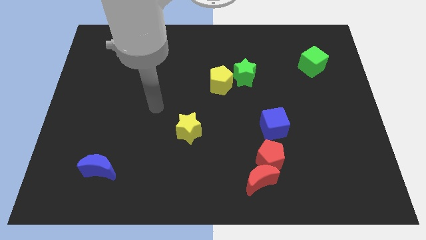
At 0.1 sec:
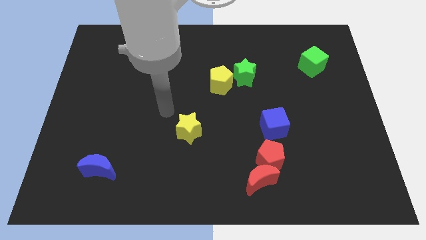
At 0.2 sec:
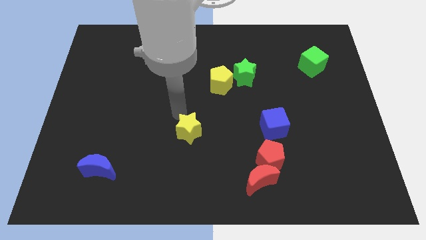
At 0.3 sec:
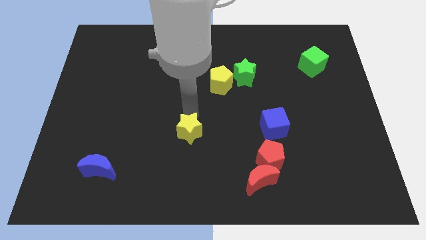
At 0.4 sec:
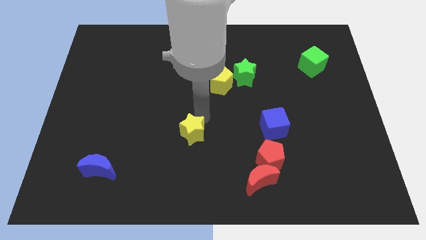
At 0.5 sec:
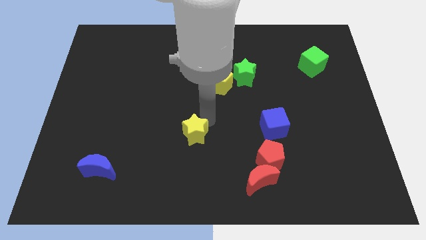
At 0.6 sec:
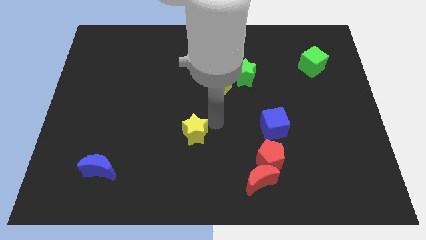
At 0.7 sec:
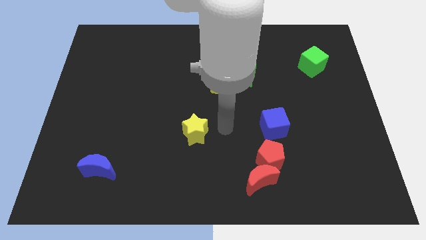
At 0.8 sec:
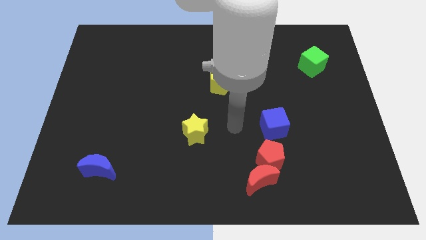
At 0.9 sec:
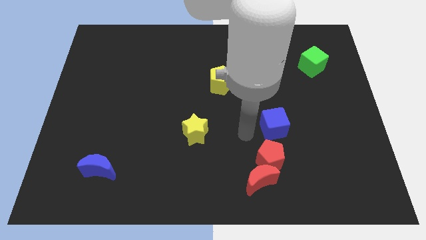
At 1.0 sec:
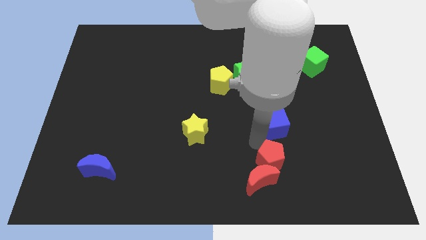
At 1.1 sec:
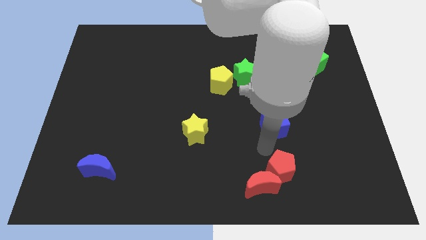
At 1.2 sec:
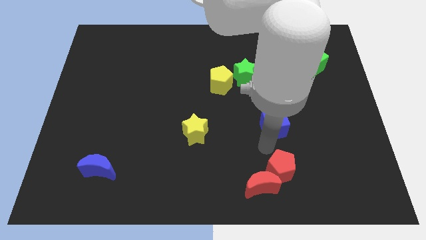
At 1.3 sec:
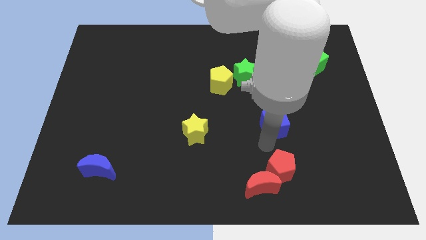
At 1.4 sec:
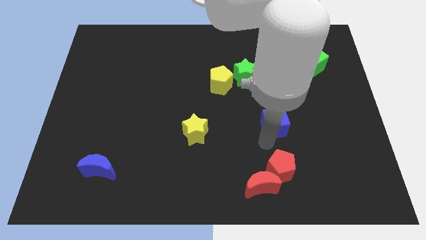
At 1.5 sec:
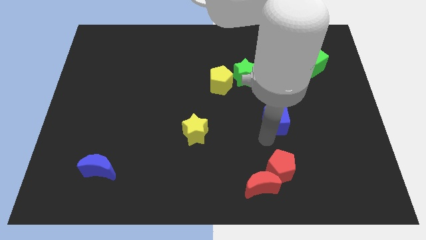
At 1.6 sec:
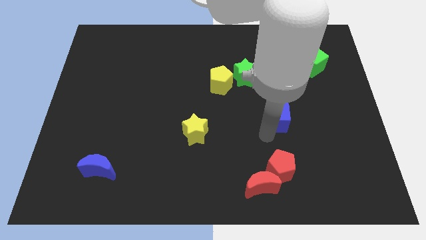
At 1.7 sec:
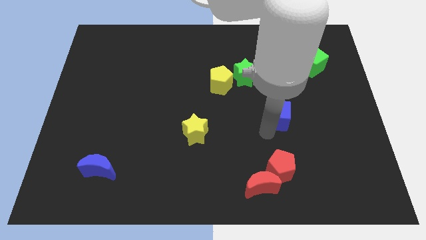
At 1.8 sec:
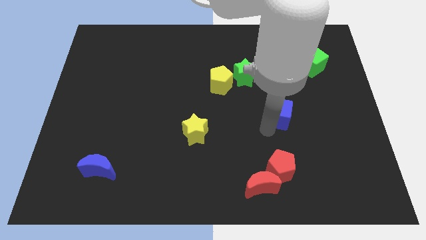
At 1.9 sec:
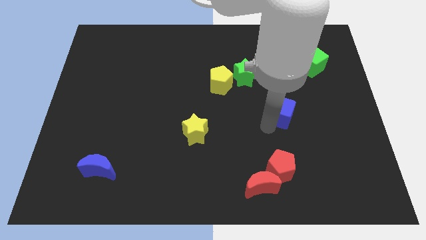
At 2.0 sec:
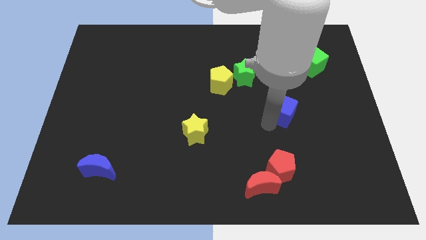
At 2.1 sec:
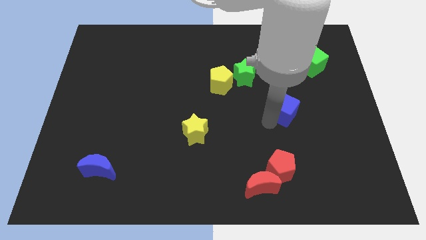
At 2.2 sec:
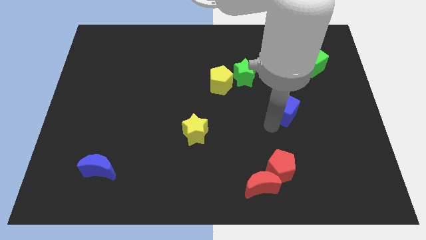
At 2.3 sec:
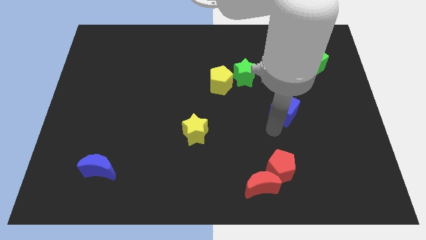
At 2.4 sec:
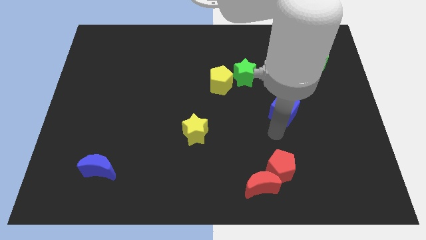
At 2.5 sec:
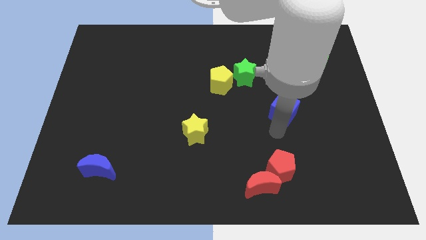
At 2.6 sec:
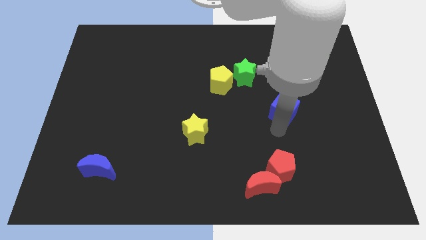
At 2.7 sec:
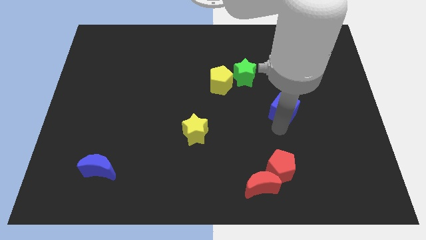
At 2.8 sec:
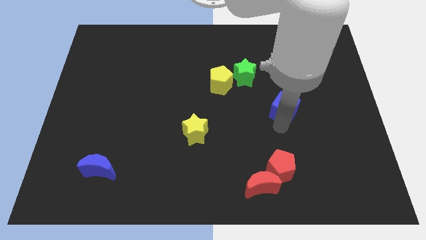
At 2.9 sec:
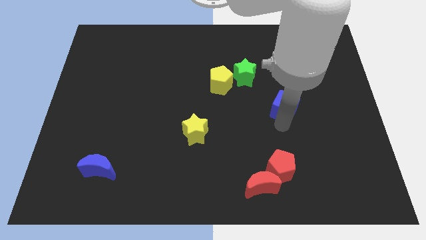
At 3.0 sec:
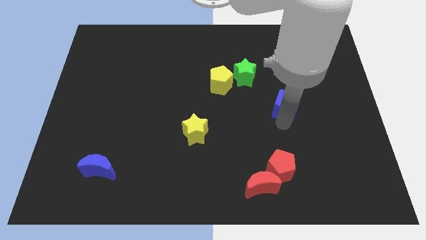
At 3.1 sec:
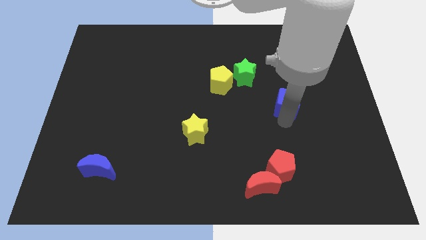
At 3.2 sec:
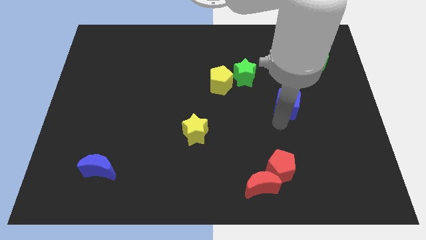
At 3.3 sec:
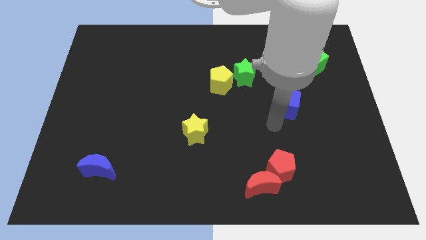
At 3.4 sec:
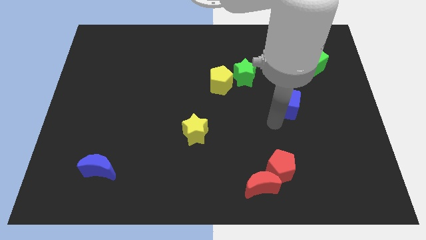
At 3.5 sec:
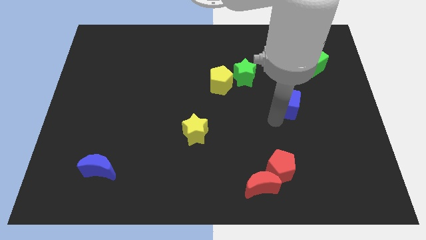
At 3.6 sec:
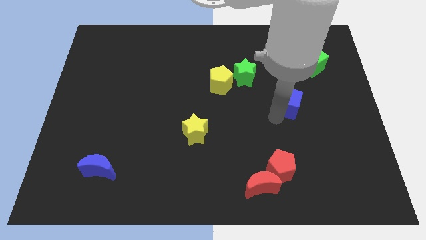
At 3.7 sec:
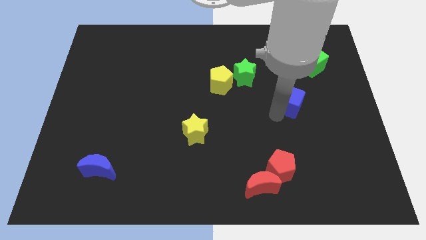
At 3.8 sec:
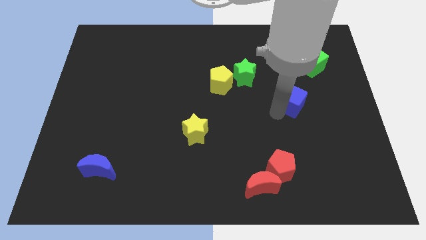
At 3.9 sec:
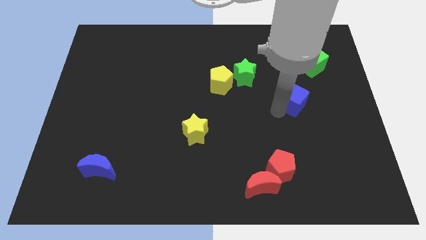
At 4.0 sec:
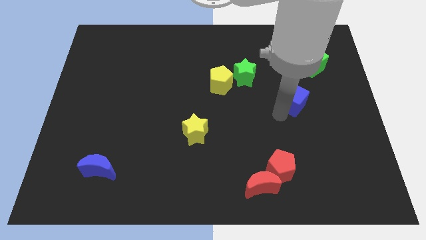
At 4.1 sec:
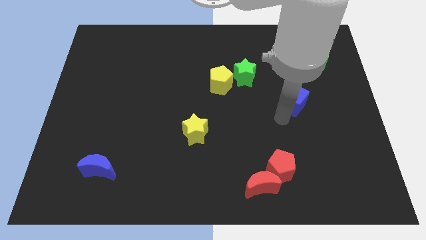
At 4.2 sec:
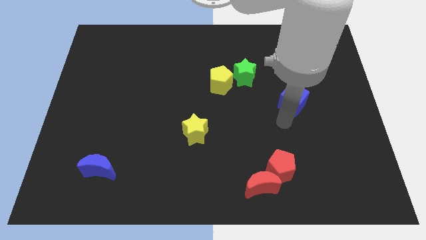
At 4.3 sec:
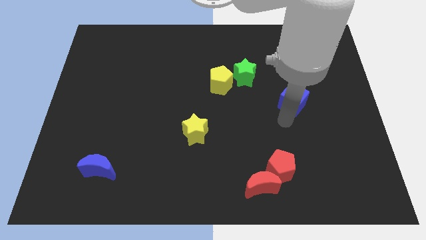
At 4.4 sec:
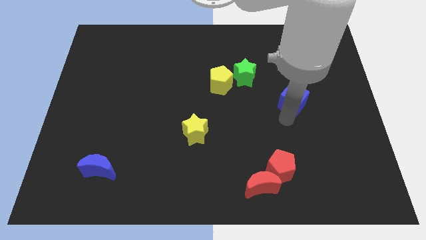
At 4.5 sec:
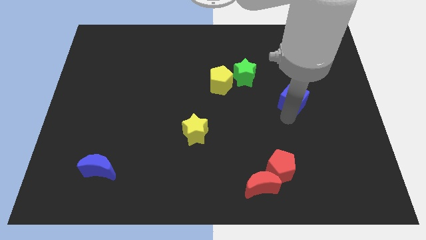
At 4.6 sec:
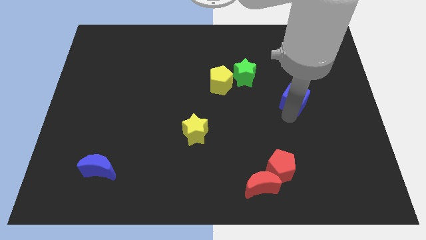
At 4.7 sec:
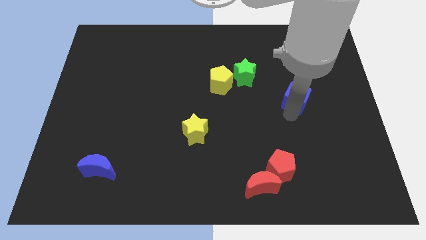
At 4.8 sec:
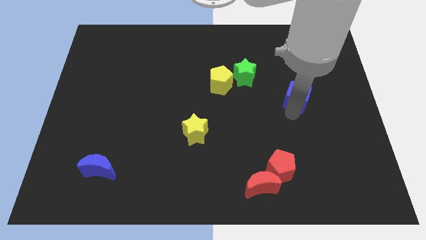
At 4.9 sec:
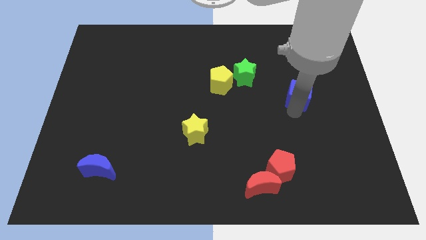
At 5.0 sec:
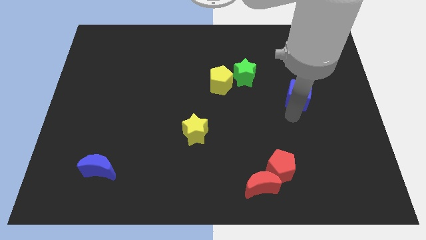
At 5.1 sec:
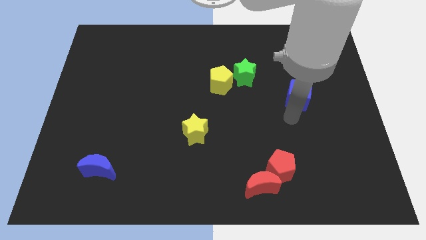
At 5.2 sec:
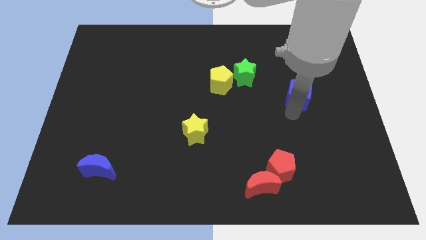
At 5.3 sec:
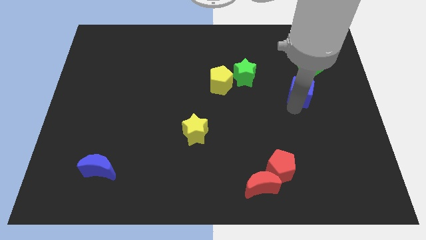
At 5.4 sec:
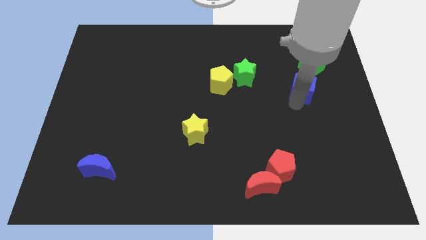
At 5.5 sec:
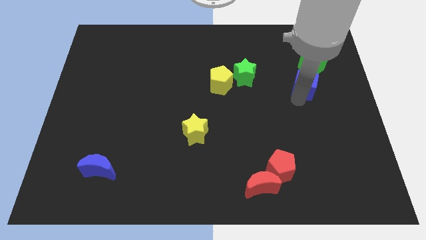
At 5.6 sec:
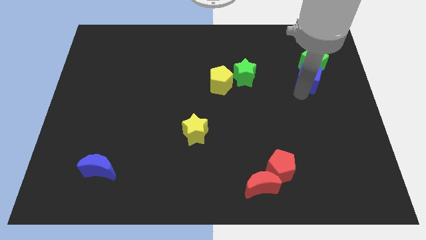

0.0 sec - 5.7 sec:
push the blue cube close to the green cube
